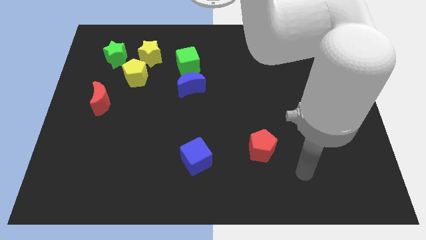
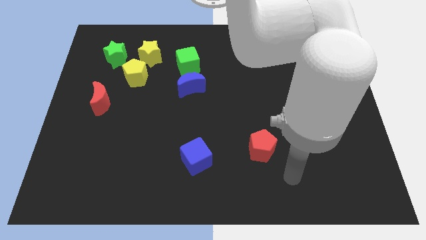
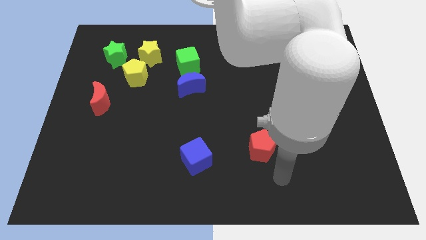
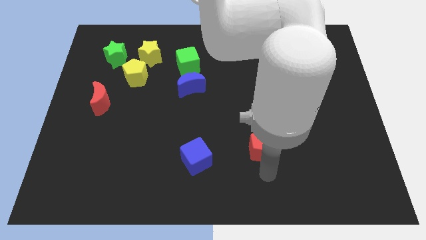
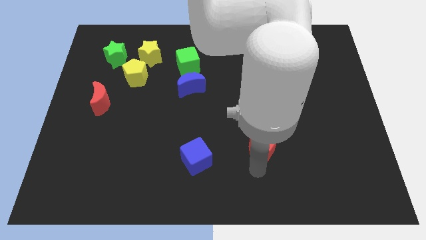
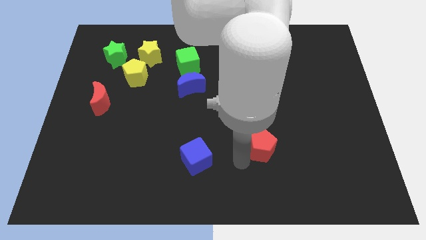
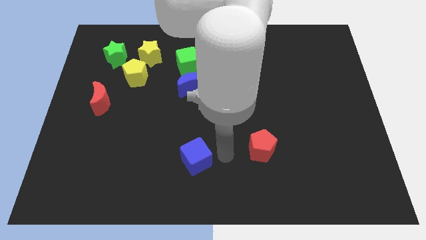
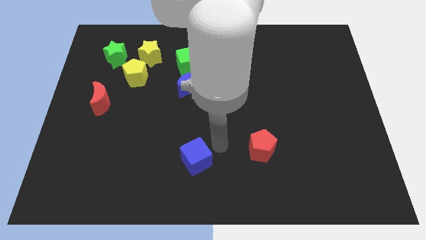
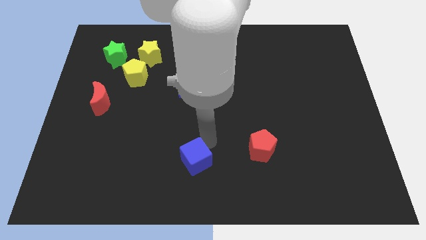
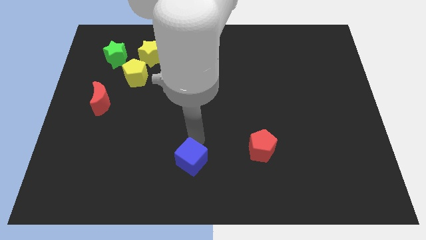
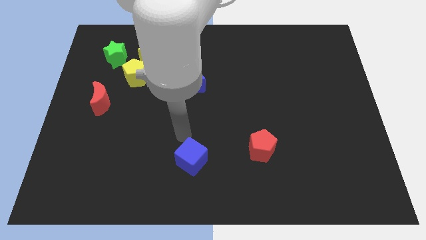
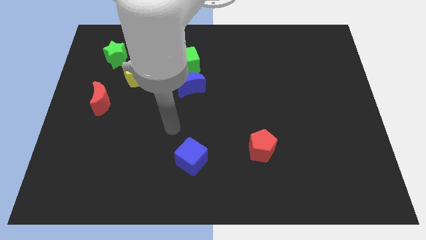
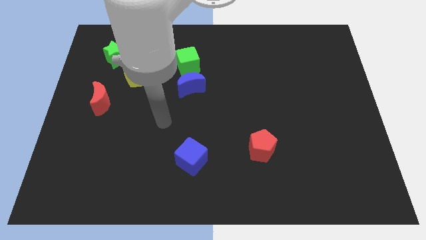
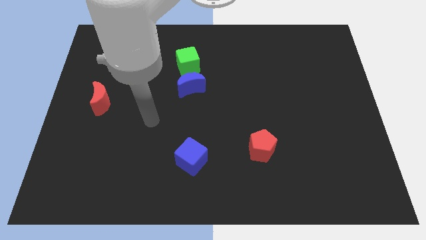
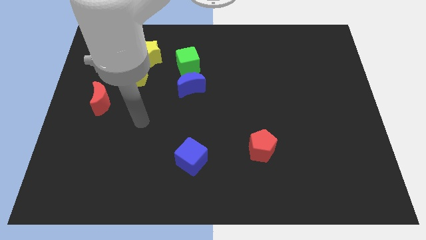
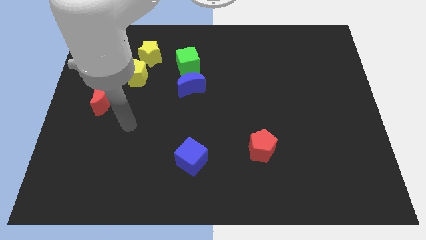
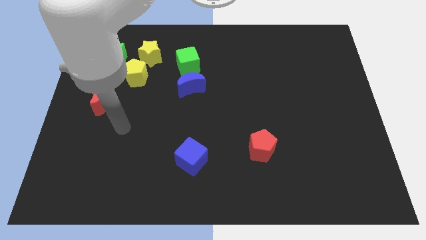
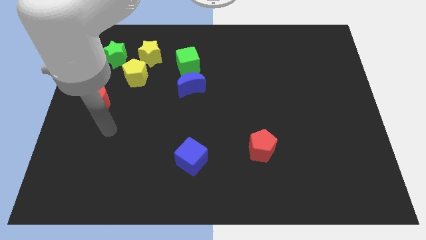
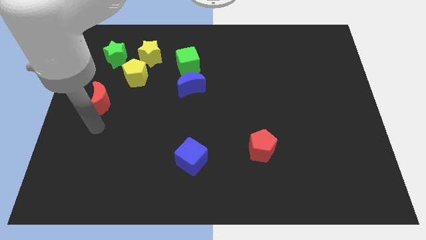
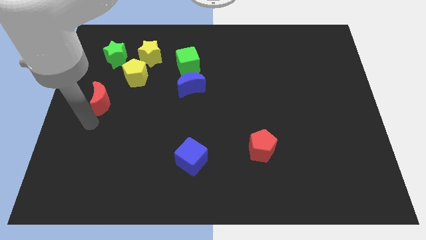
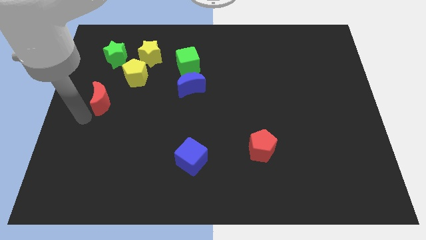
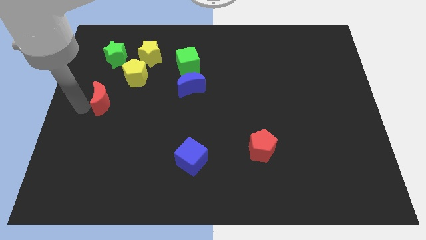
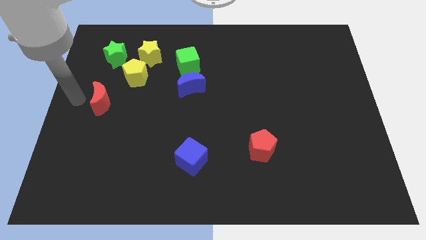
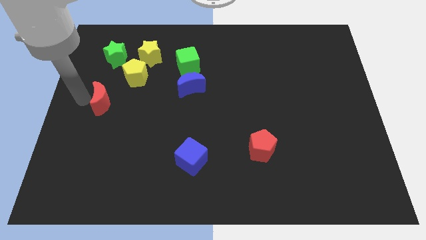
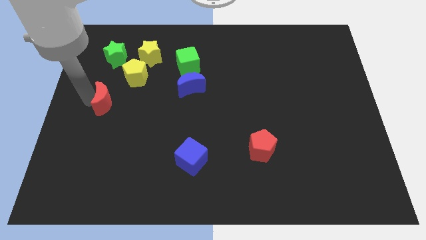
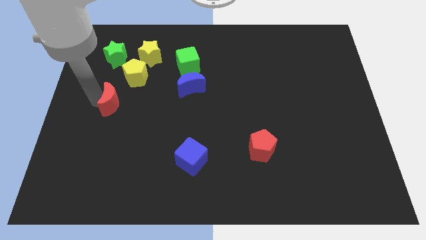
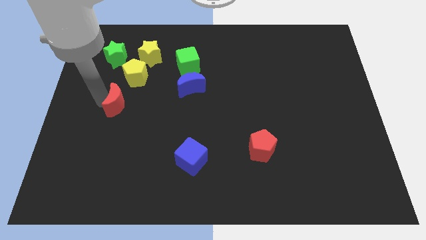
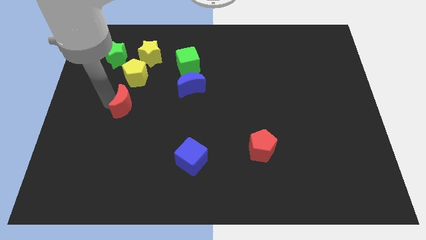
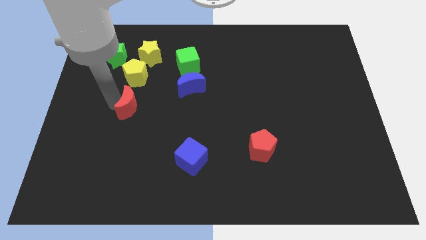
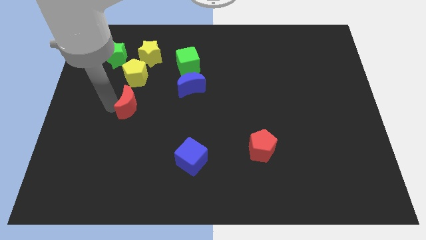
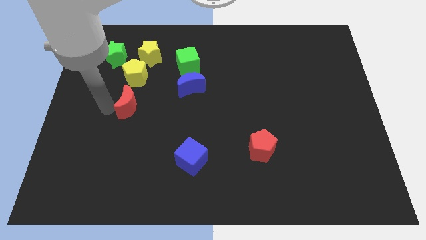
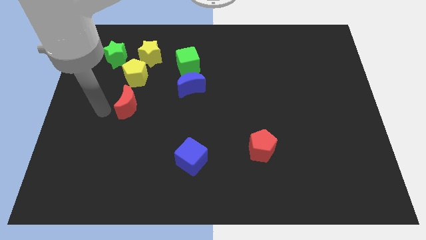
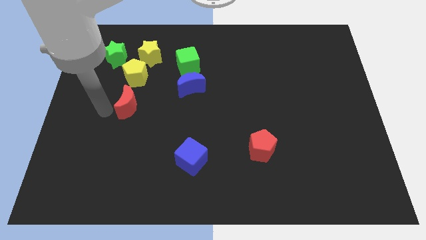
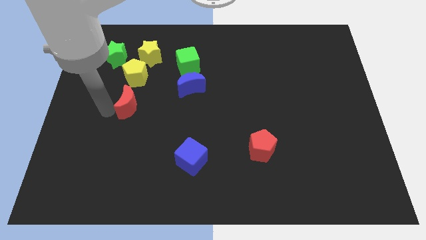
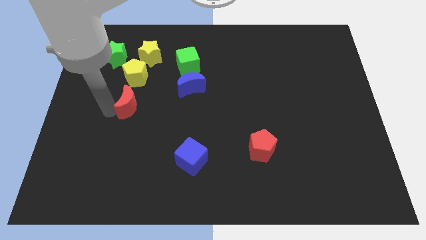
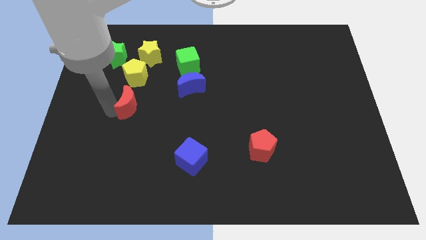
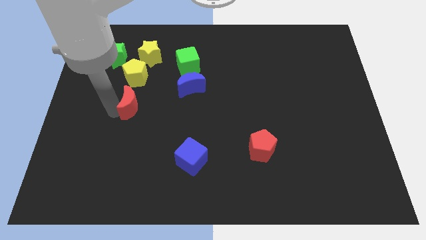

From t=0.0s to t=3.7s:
slide the red moon to the right a little bit

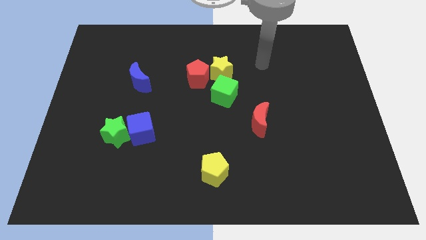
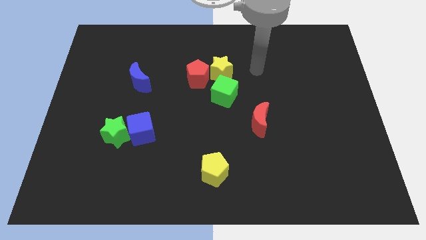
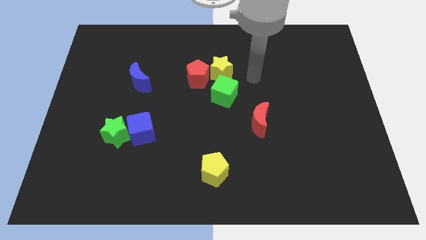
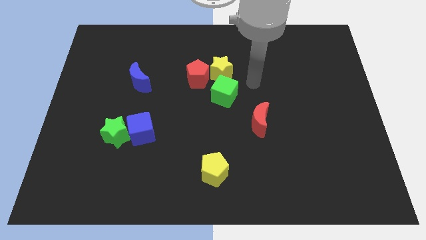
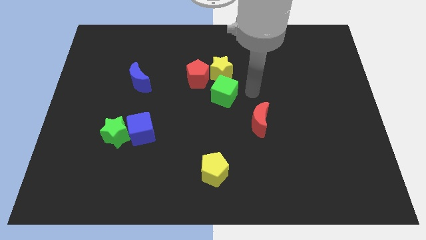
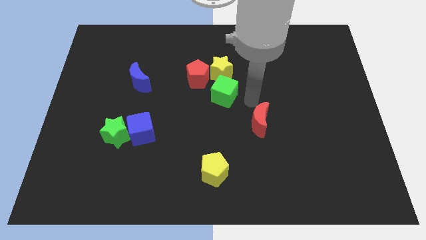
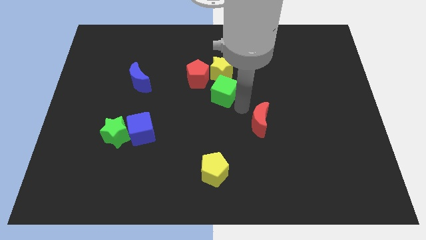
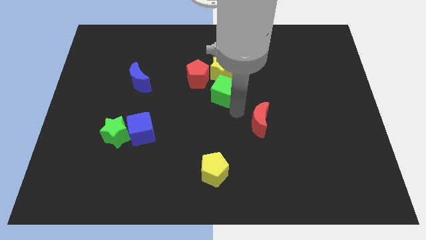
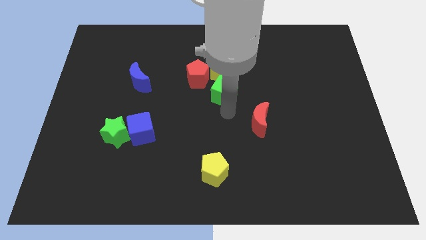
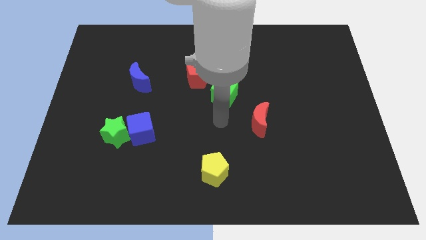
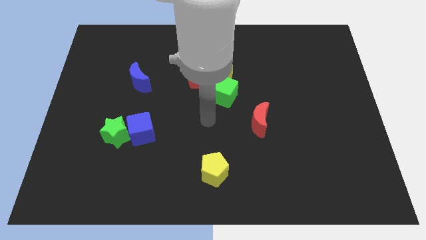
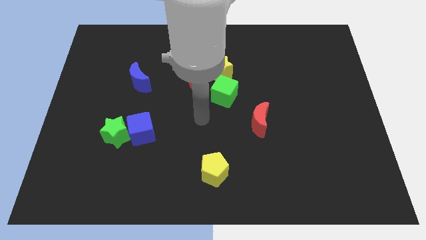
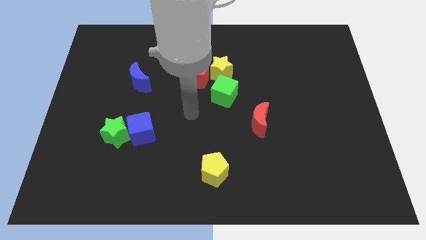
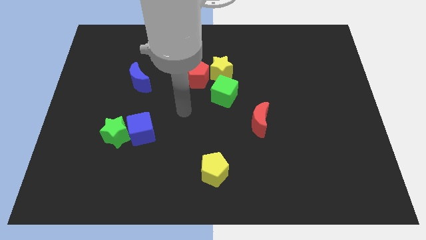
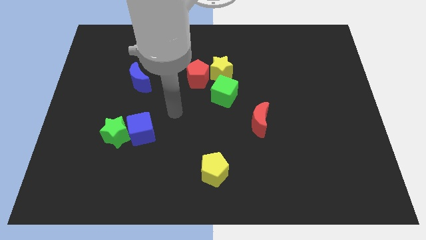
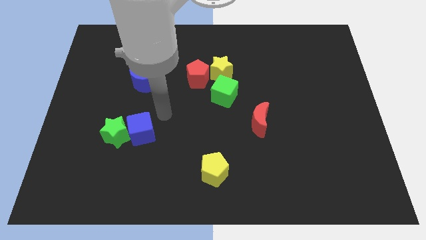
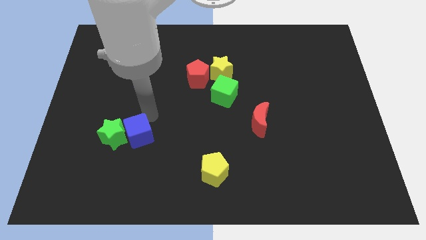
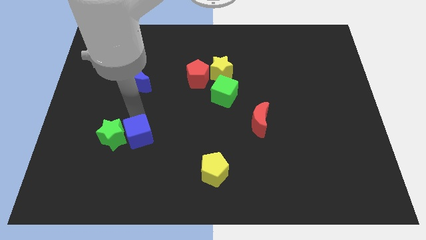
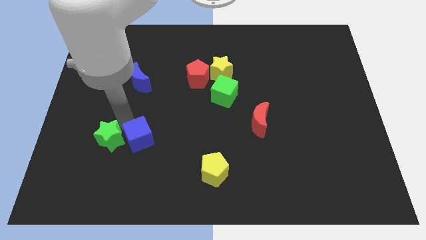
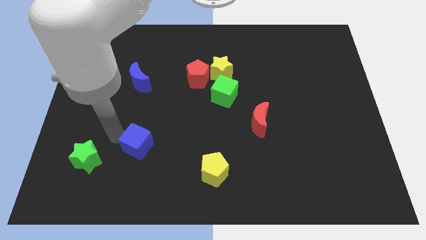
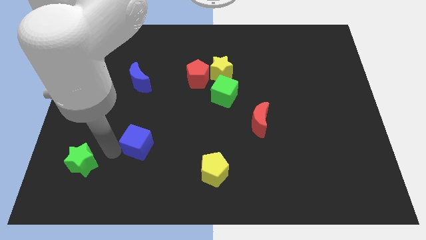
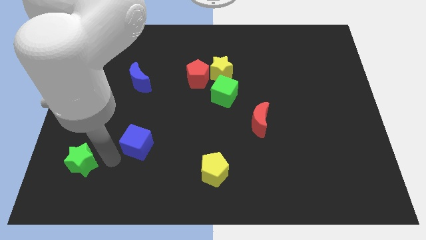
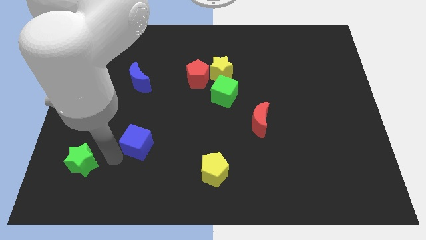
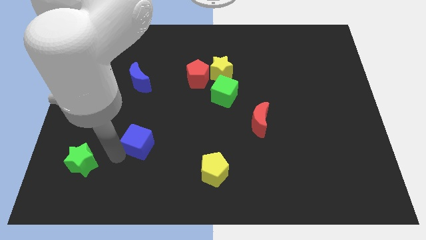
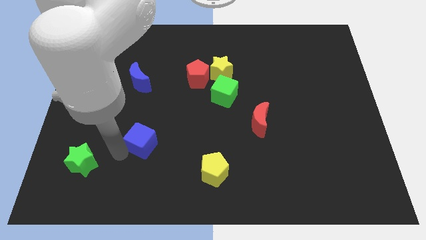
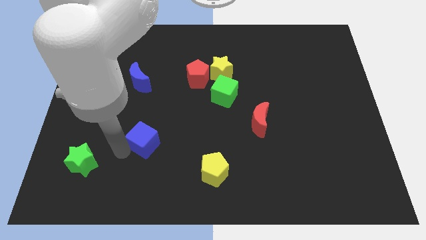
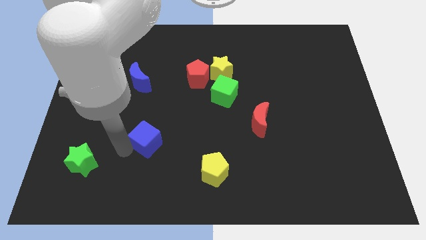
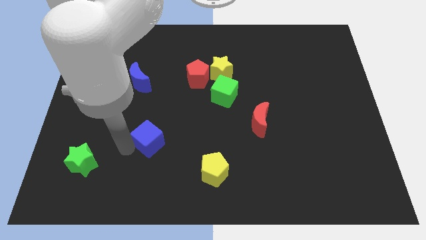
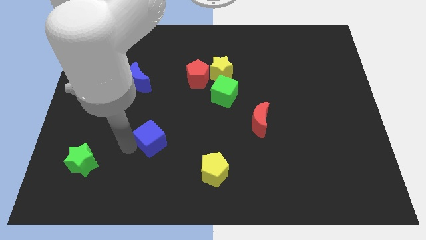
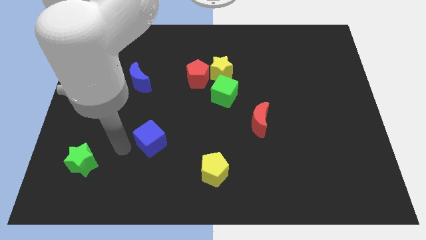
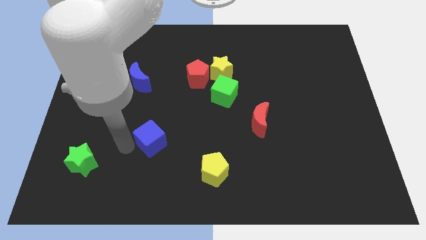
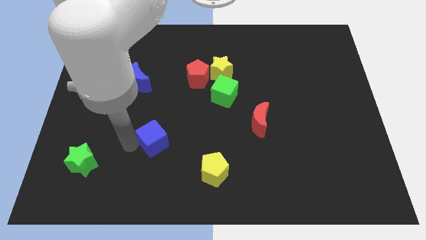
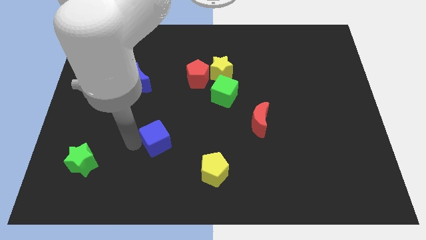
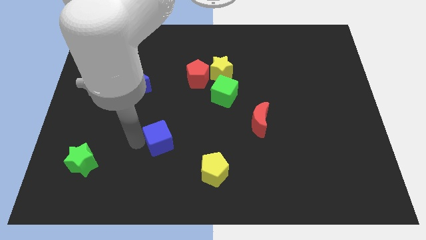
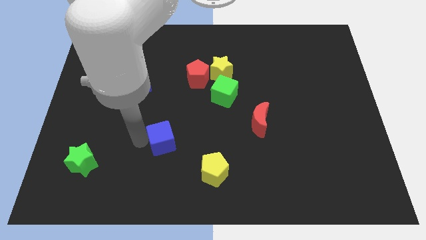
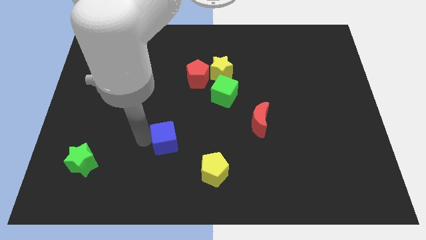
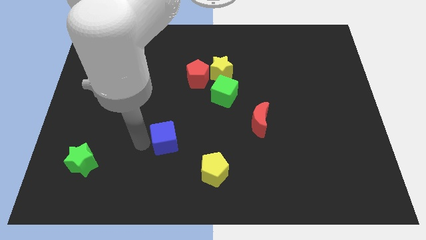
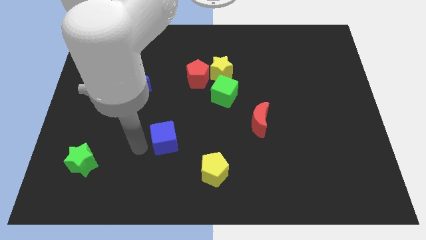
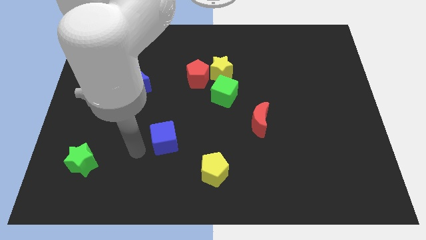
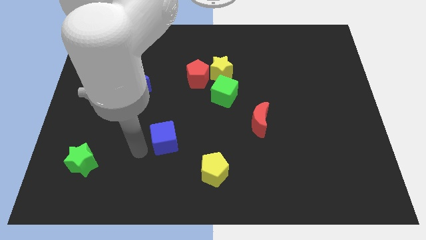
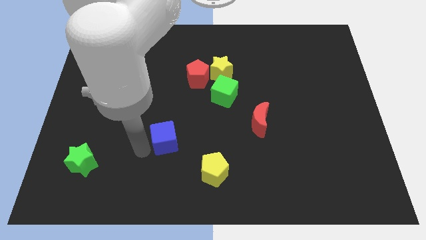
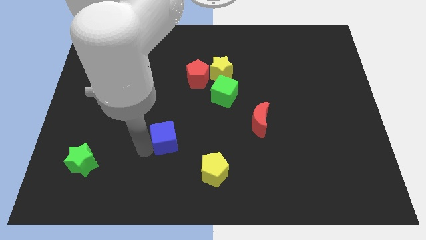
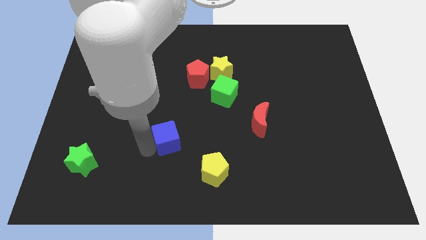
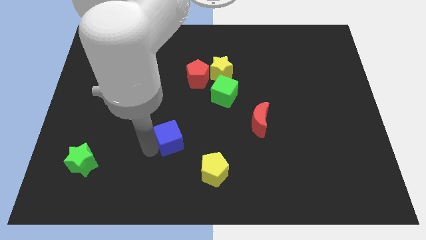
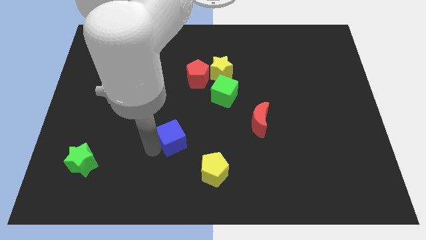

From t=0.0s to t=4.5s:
slightly slide the blue cube right
